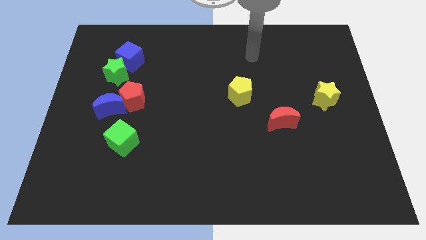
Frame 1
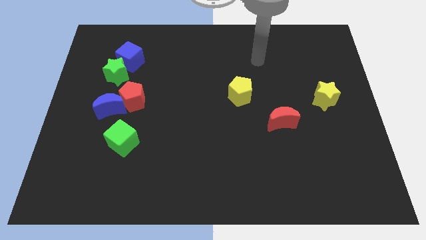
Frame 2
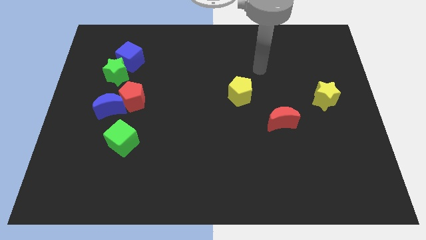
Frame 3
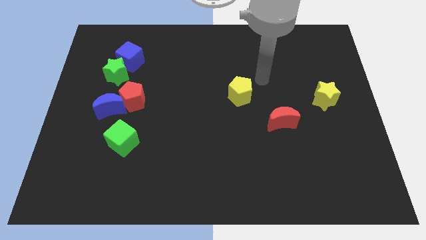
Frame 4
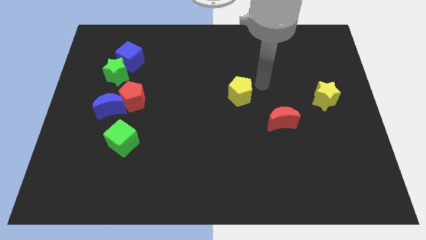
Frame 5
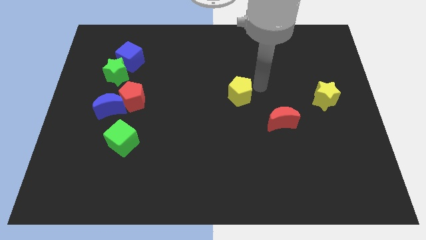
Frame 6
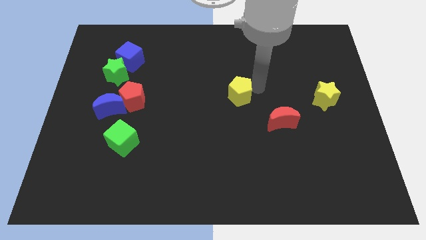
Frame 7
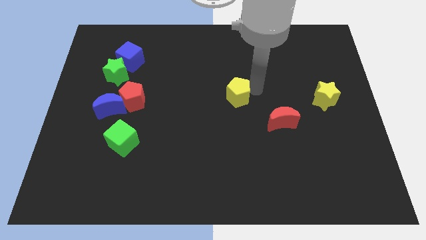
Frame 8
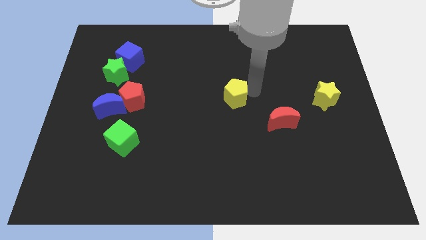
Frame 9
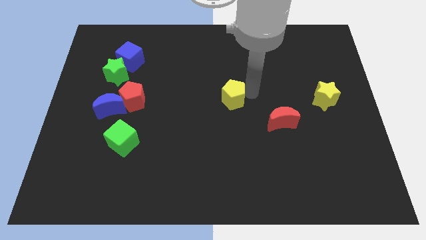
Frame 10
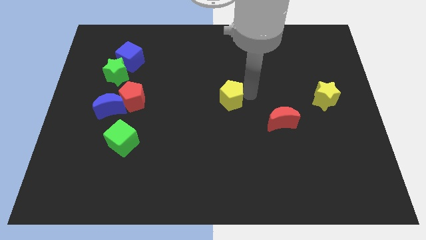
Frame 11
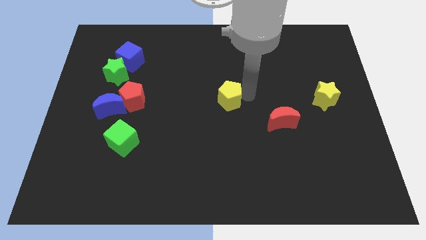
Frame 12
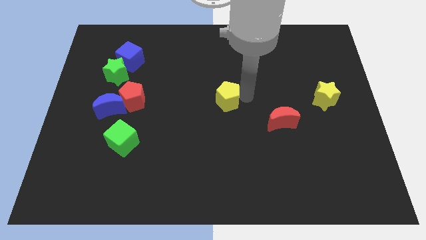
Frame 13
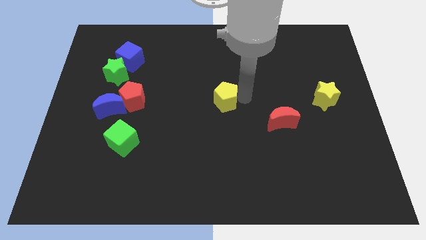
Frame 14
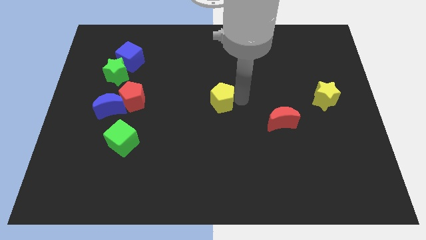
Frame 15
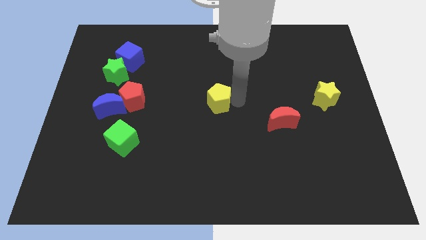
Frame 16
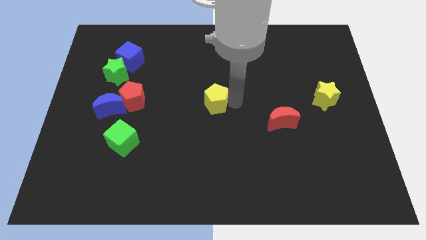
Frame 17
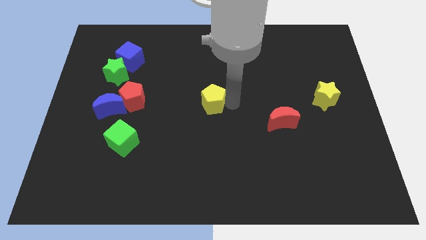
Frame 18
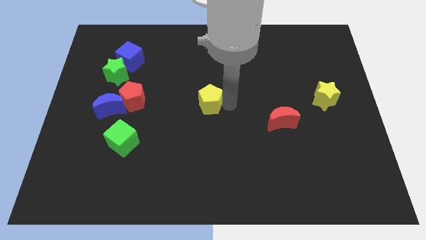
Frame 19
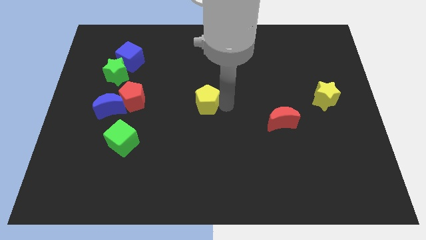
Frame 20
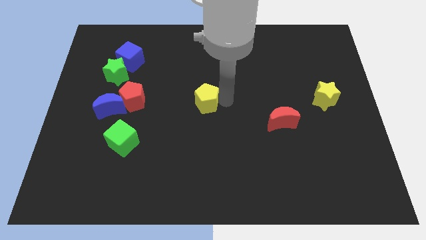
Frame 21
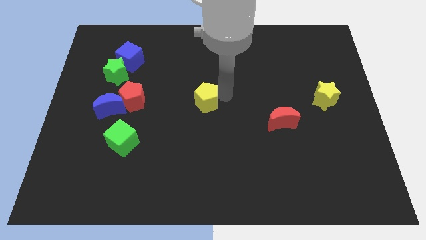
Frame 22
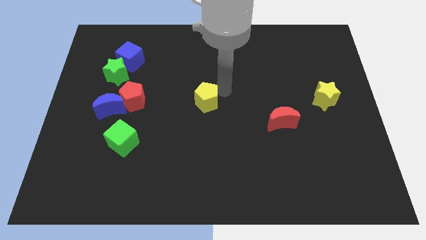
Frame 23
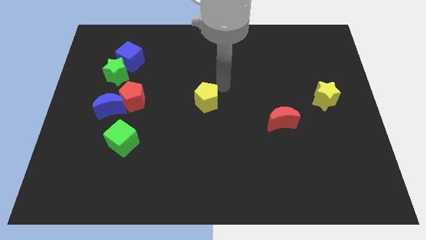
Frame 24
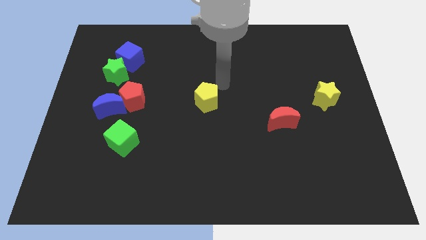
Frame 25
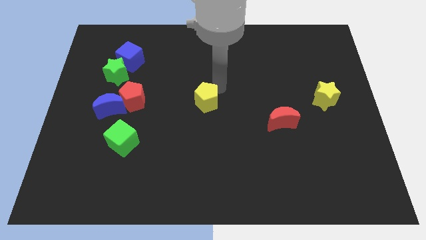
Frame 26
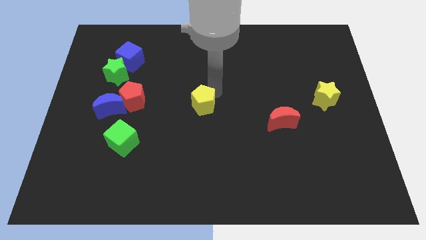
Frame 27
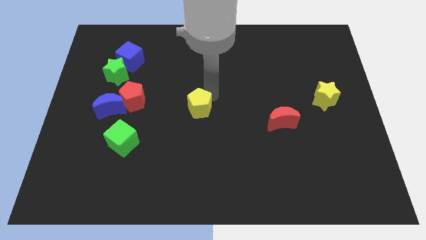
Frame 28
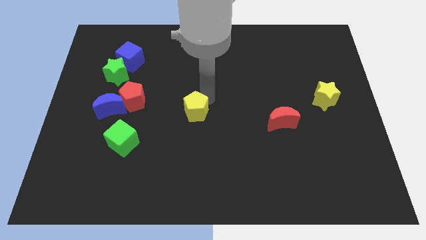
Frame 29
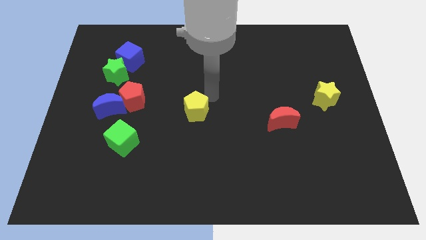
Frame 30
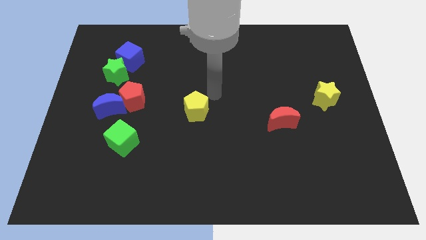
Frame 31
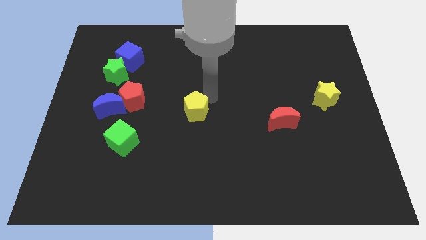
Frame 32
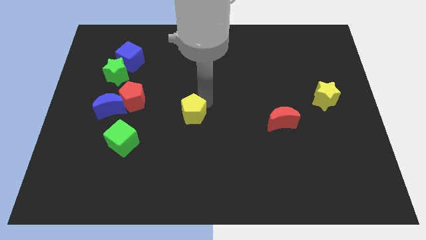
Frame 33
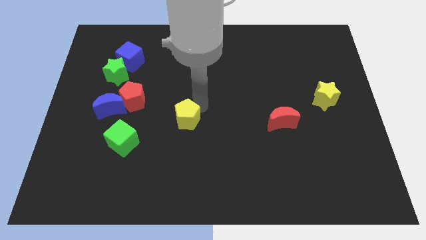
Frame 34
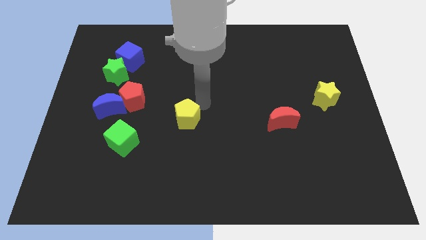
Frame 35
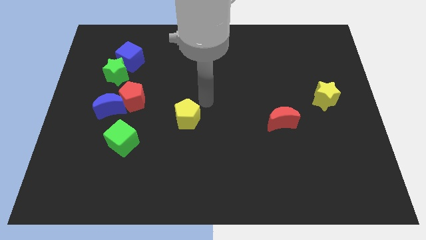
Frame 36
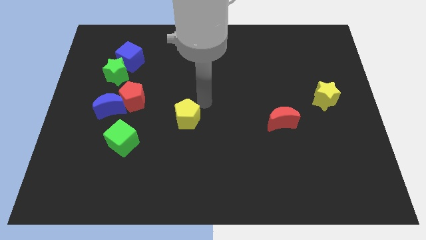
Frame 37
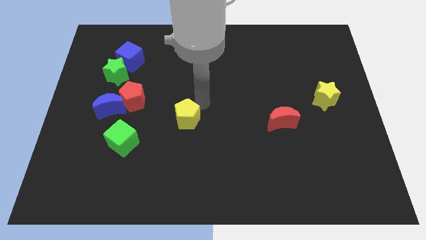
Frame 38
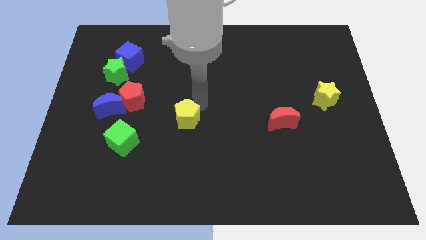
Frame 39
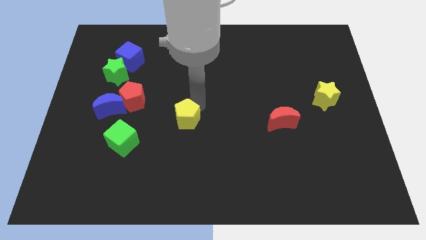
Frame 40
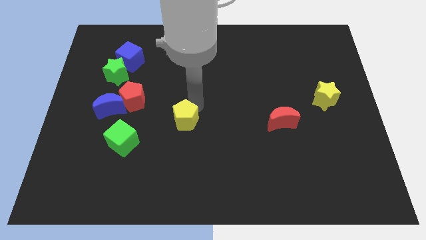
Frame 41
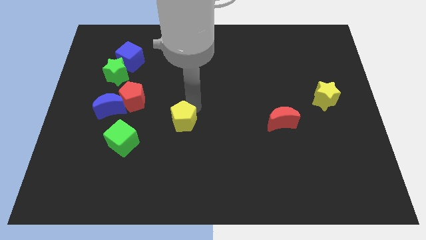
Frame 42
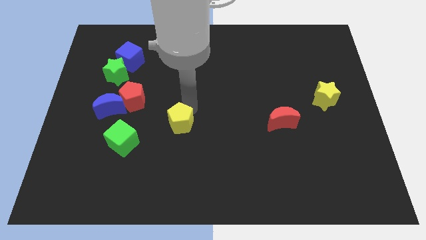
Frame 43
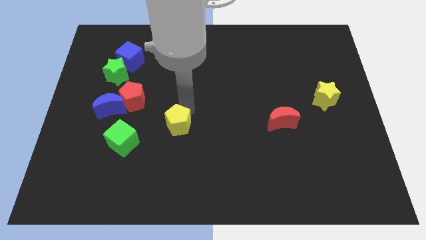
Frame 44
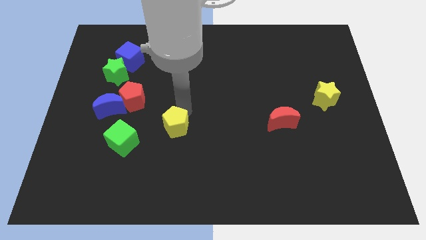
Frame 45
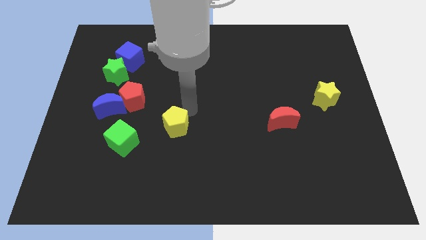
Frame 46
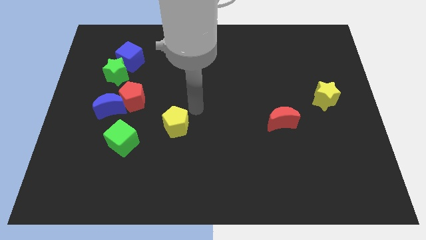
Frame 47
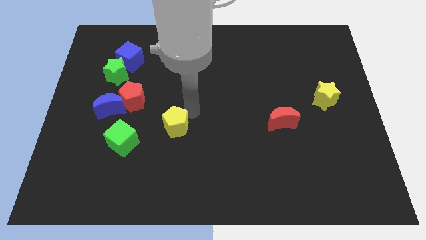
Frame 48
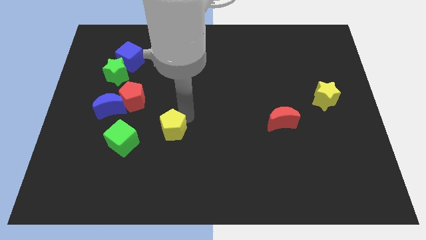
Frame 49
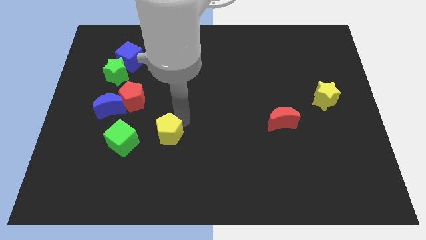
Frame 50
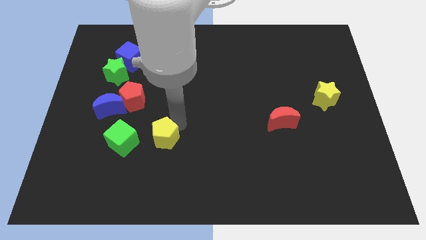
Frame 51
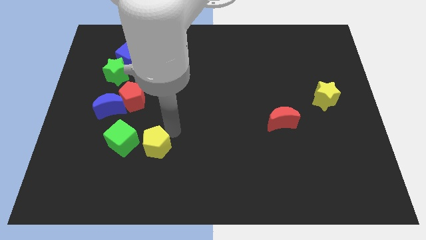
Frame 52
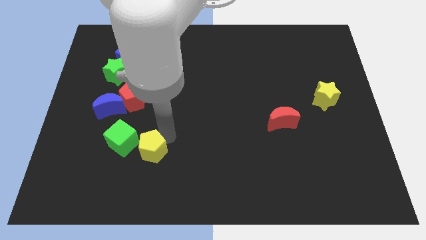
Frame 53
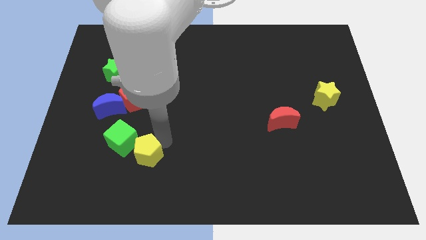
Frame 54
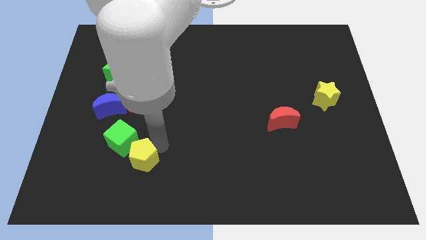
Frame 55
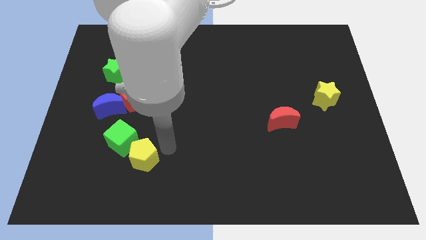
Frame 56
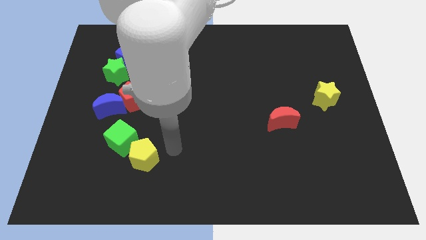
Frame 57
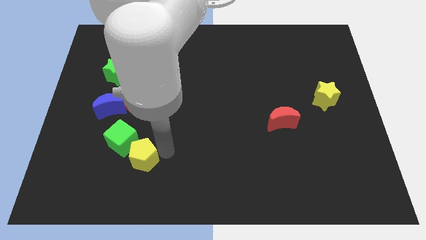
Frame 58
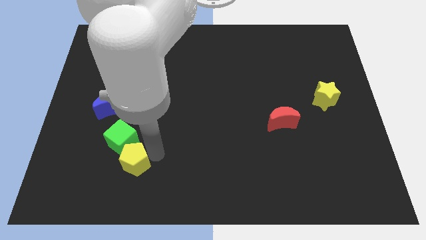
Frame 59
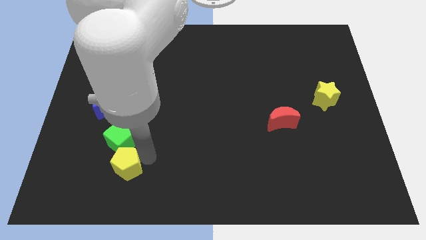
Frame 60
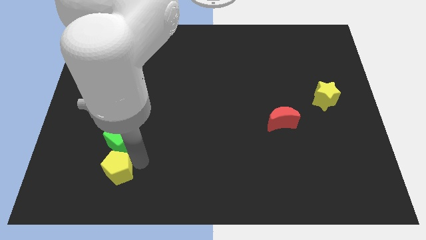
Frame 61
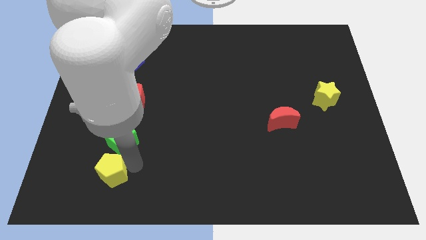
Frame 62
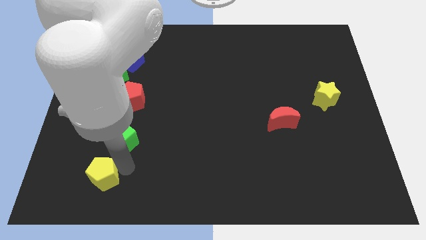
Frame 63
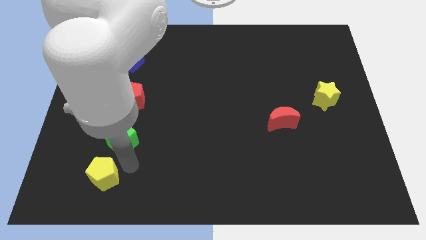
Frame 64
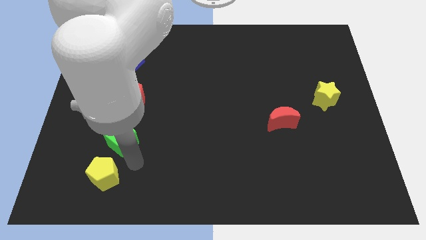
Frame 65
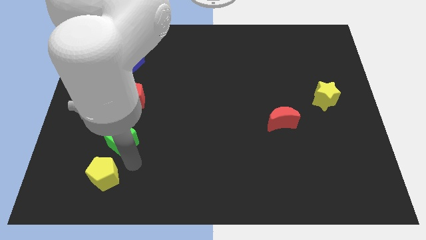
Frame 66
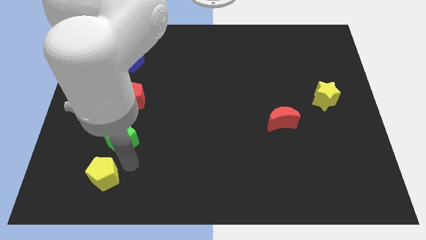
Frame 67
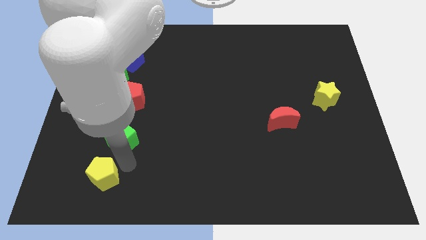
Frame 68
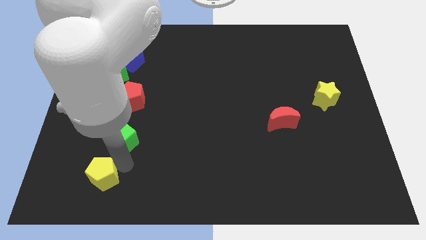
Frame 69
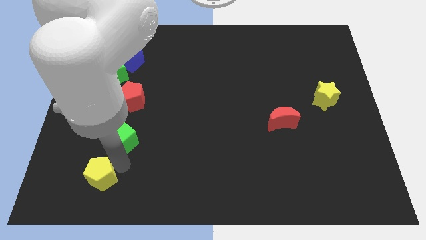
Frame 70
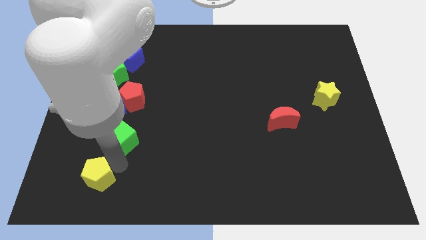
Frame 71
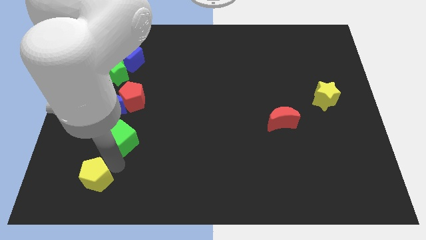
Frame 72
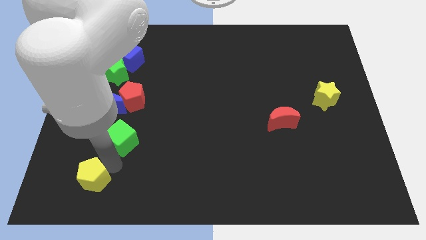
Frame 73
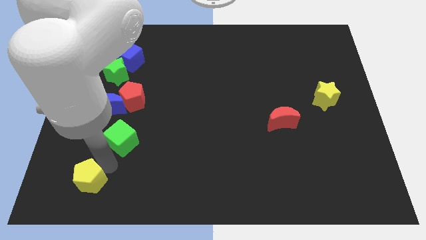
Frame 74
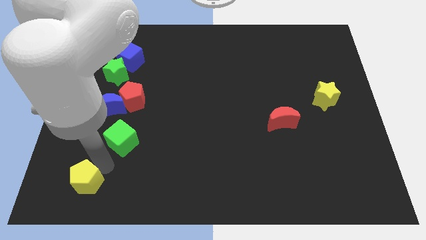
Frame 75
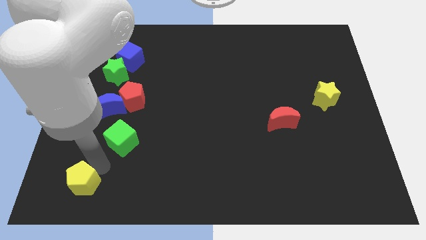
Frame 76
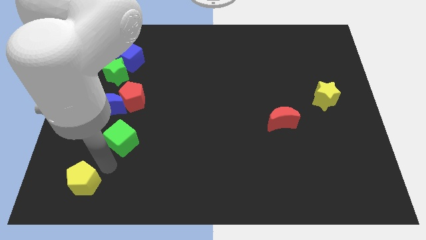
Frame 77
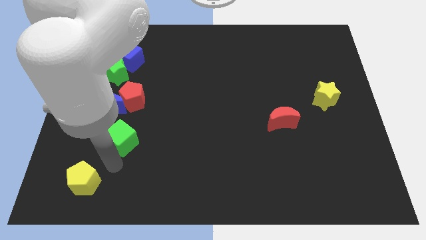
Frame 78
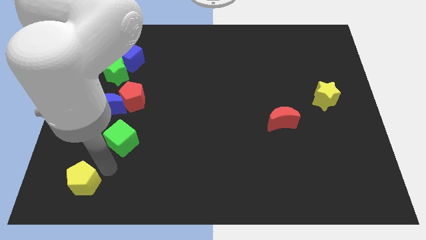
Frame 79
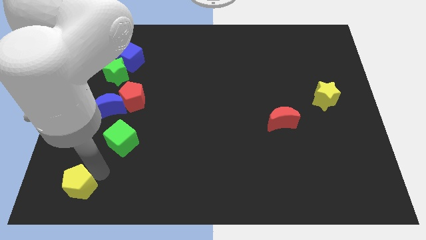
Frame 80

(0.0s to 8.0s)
push the yellow pentagon to the lower left corner
